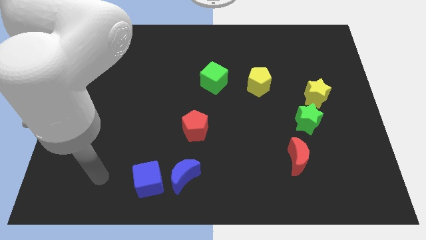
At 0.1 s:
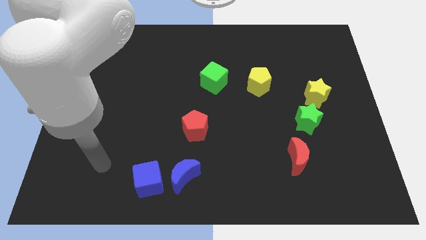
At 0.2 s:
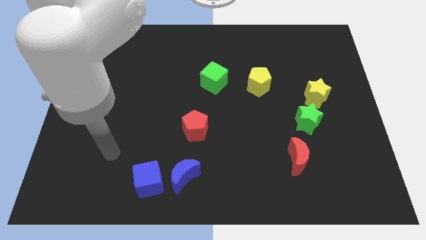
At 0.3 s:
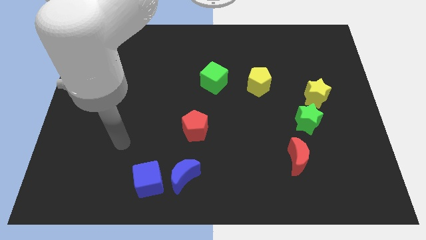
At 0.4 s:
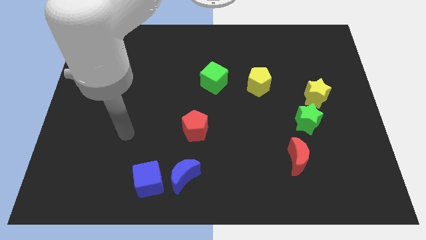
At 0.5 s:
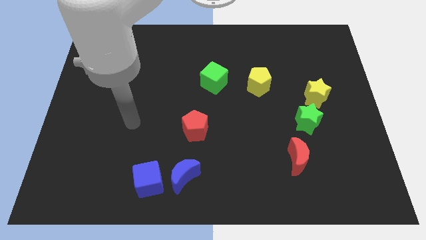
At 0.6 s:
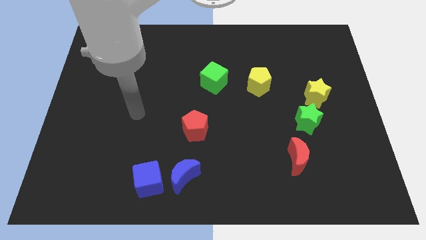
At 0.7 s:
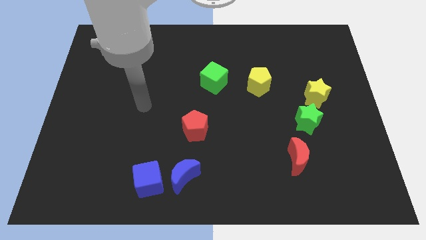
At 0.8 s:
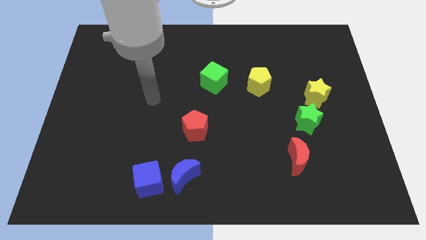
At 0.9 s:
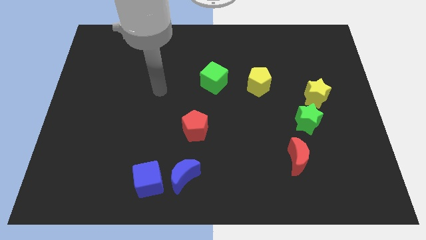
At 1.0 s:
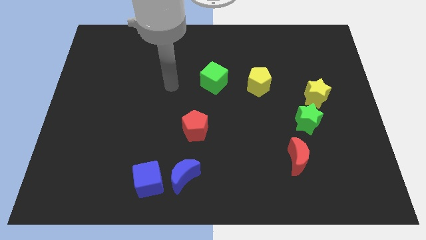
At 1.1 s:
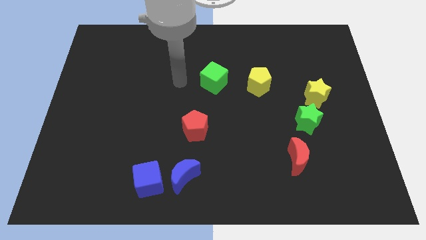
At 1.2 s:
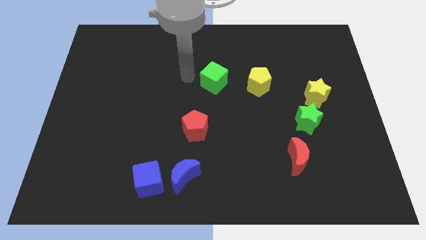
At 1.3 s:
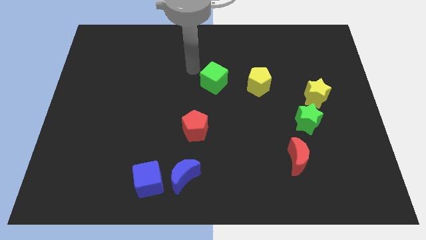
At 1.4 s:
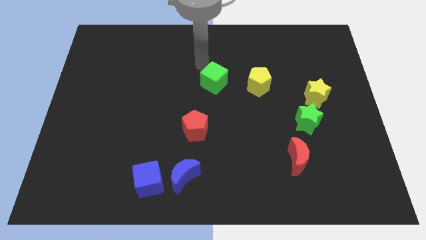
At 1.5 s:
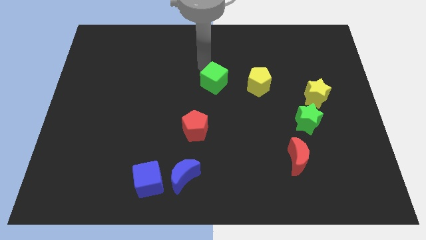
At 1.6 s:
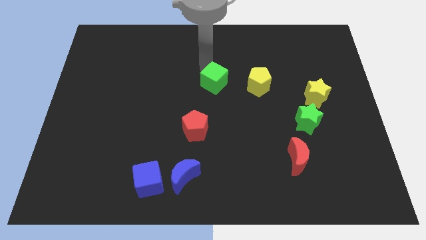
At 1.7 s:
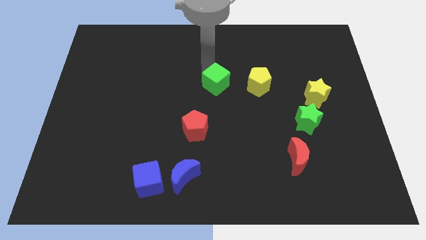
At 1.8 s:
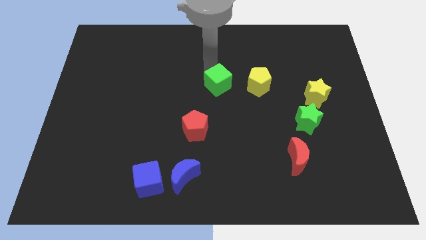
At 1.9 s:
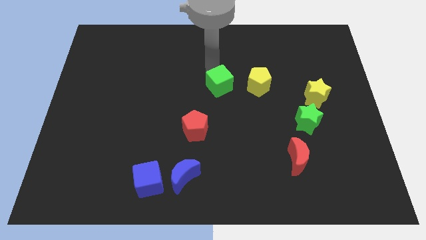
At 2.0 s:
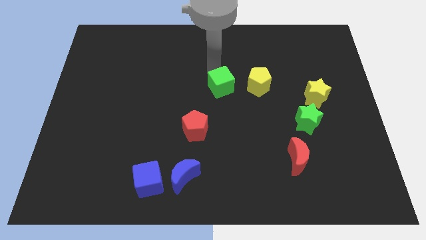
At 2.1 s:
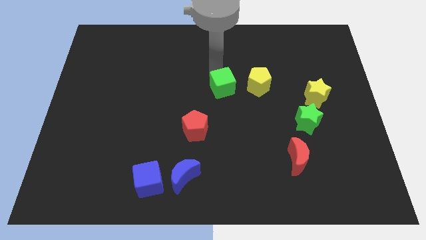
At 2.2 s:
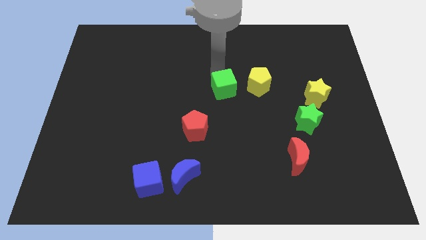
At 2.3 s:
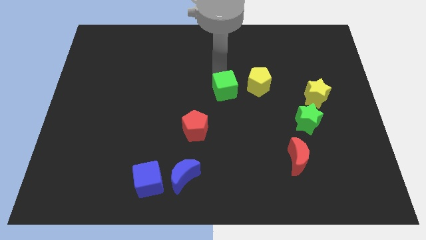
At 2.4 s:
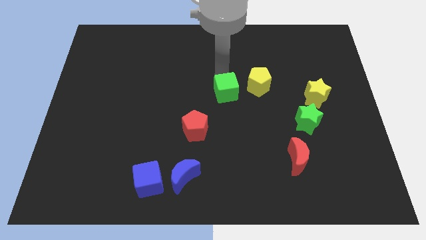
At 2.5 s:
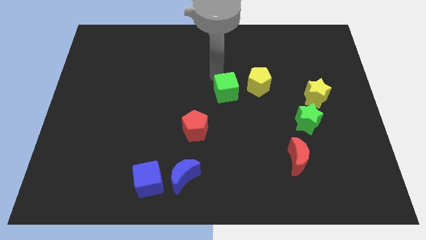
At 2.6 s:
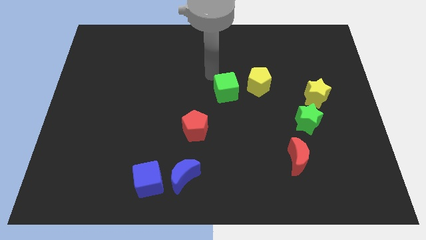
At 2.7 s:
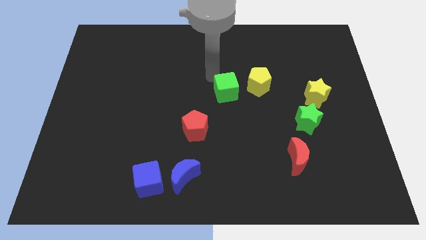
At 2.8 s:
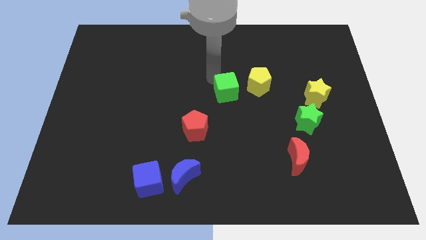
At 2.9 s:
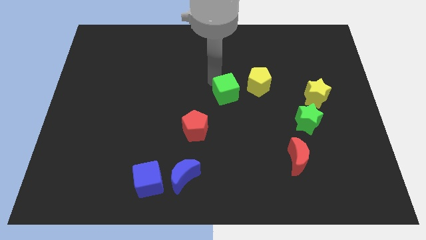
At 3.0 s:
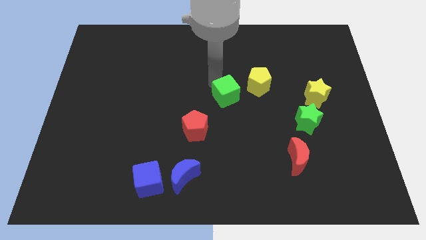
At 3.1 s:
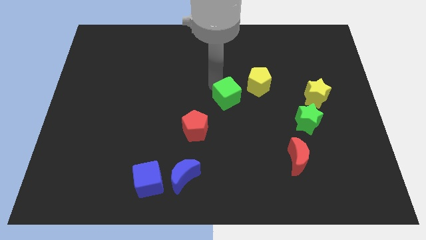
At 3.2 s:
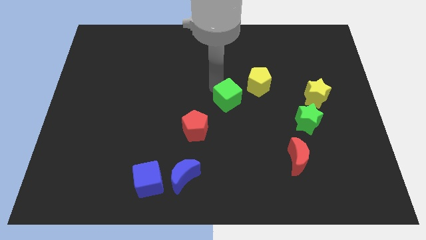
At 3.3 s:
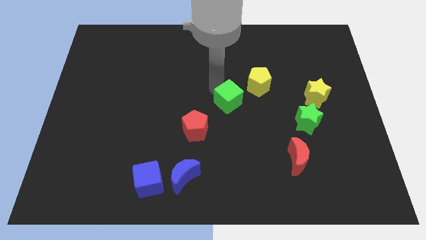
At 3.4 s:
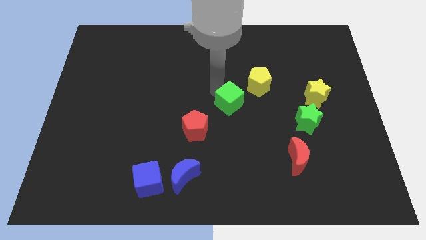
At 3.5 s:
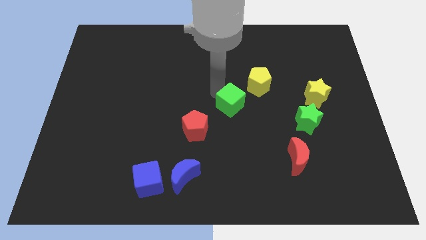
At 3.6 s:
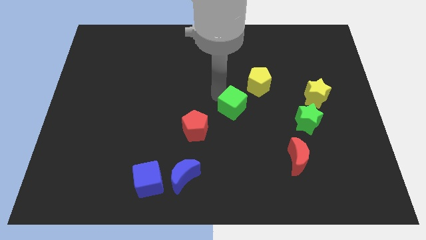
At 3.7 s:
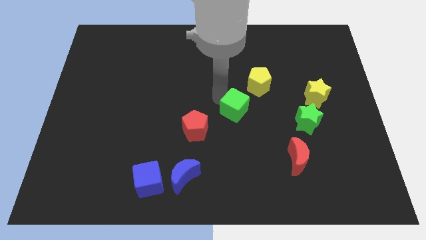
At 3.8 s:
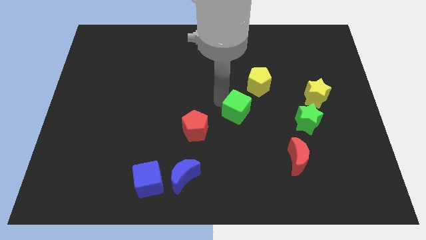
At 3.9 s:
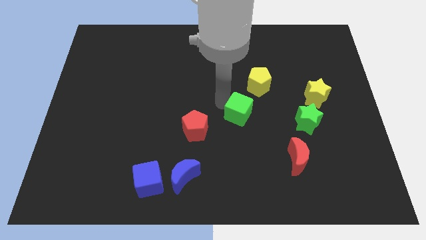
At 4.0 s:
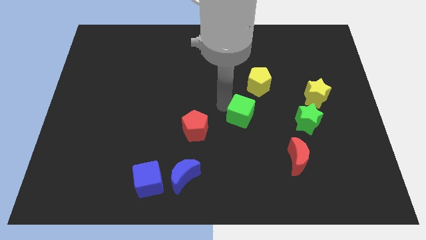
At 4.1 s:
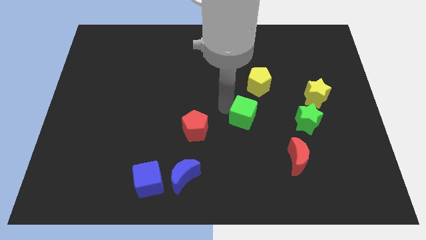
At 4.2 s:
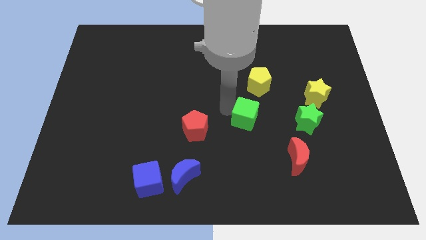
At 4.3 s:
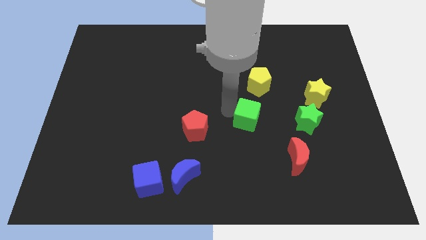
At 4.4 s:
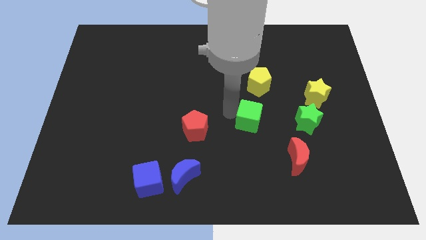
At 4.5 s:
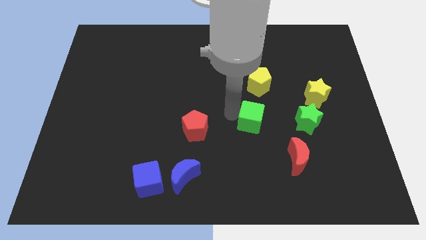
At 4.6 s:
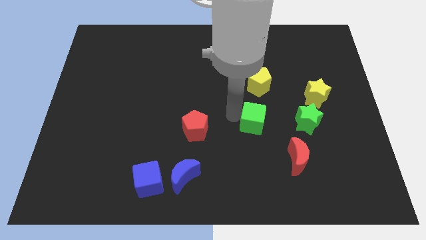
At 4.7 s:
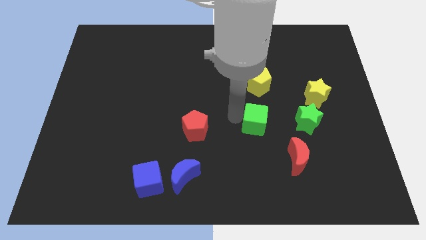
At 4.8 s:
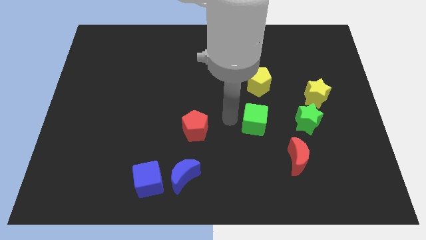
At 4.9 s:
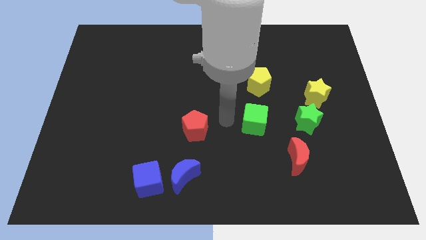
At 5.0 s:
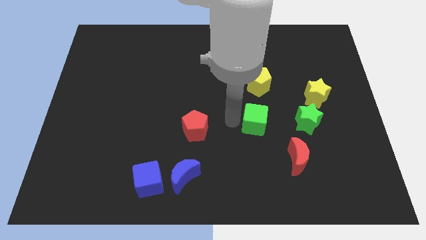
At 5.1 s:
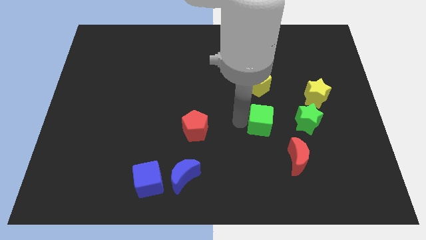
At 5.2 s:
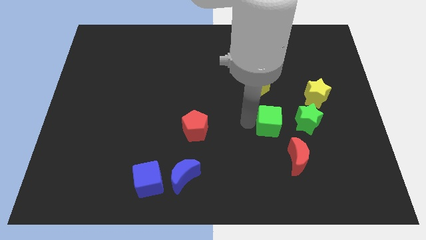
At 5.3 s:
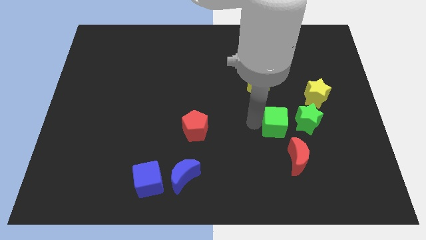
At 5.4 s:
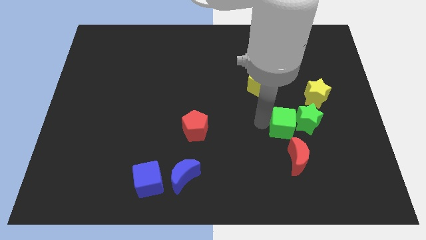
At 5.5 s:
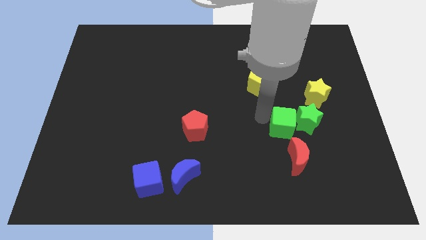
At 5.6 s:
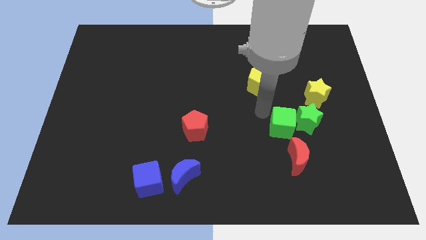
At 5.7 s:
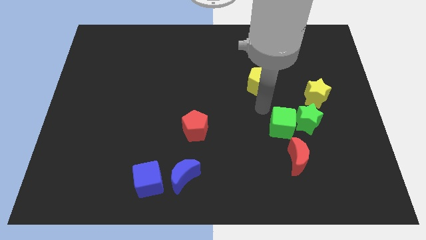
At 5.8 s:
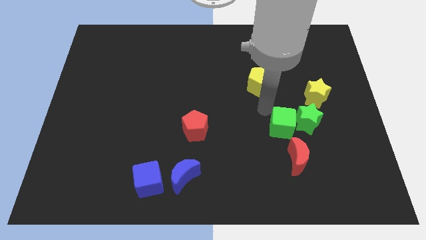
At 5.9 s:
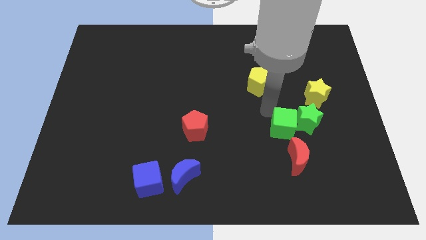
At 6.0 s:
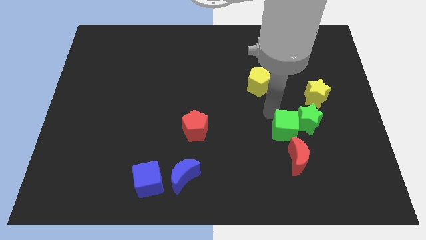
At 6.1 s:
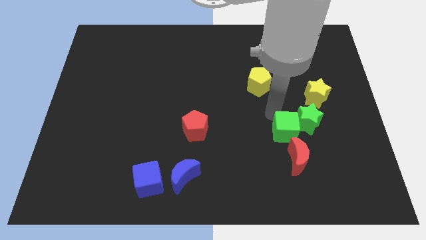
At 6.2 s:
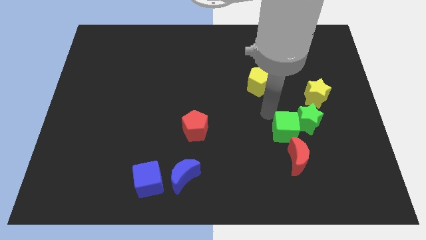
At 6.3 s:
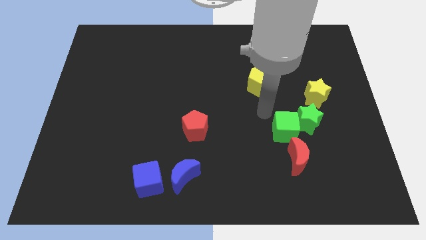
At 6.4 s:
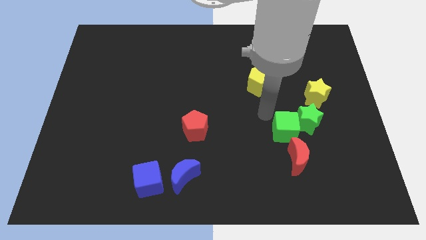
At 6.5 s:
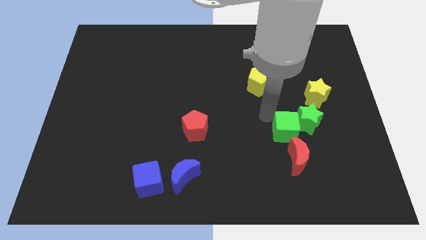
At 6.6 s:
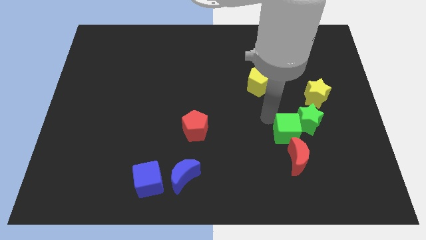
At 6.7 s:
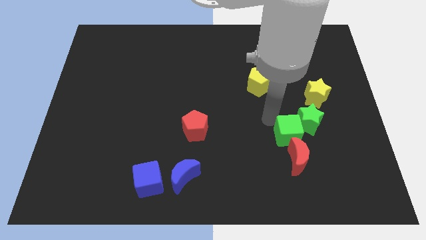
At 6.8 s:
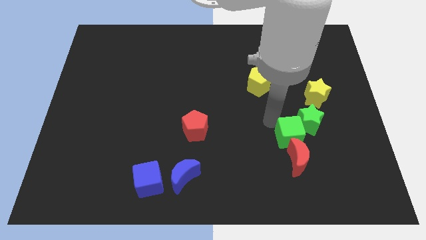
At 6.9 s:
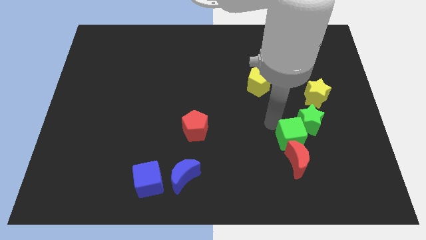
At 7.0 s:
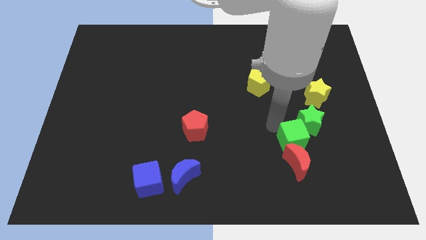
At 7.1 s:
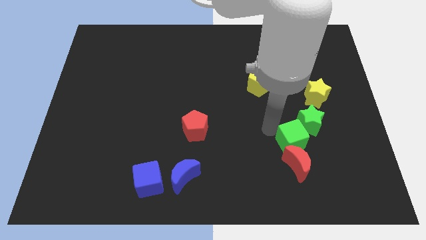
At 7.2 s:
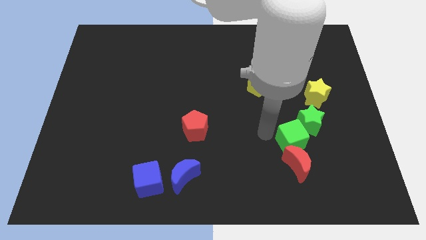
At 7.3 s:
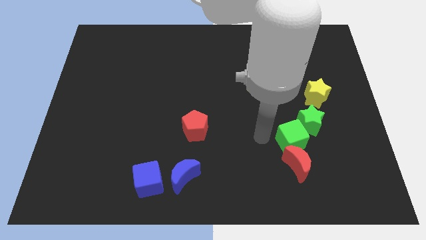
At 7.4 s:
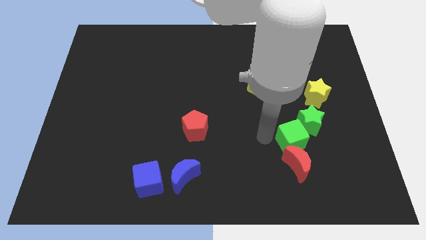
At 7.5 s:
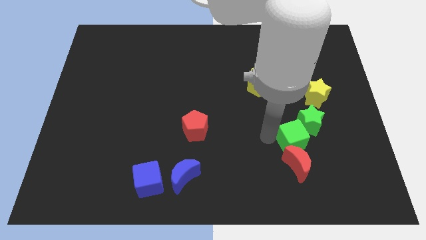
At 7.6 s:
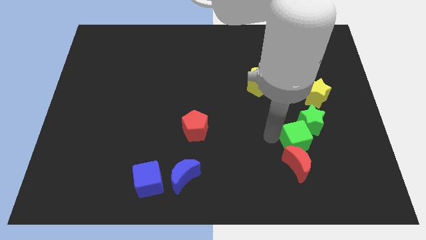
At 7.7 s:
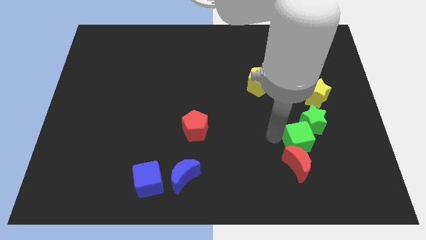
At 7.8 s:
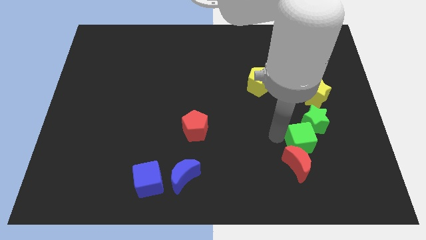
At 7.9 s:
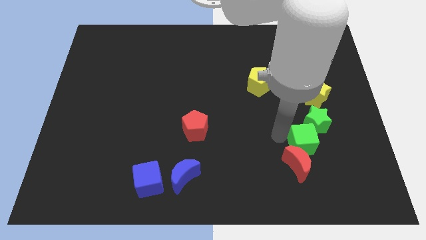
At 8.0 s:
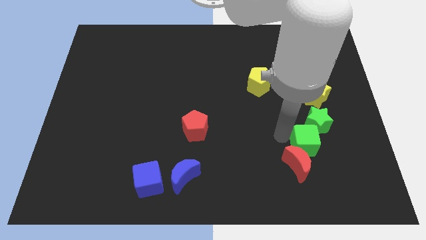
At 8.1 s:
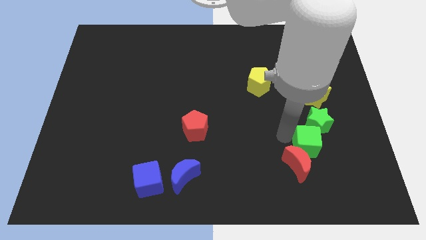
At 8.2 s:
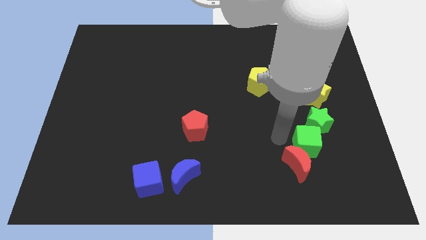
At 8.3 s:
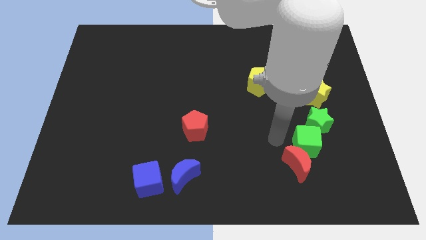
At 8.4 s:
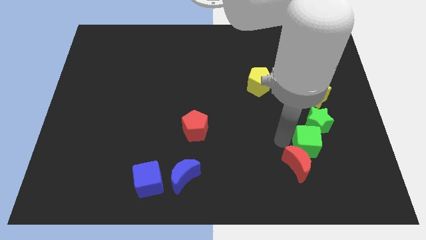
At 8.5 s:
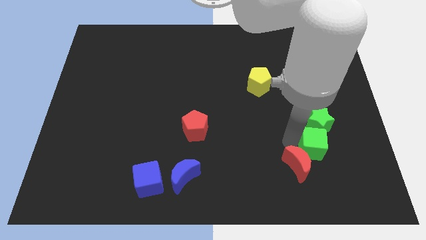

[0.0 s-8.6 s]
put the green cube to the right of the red moon
